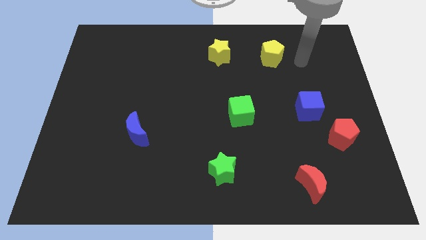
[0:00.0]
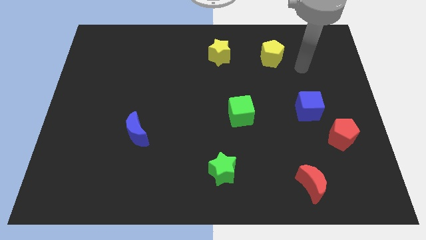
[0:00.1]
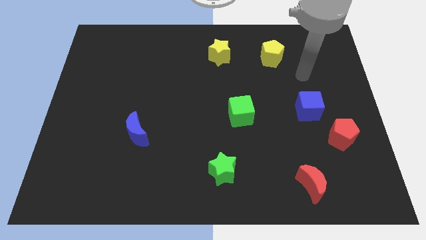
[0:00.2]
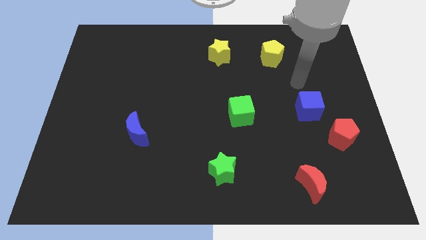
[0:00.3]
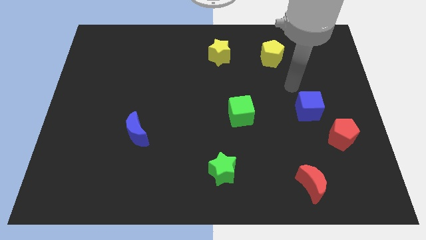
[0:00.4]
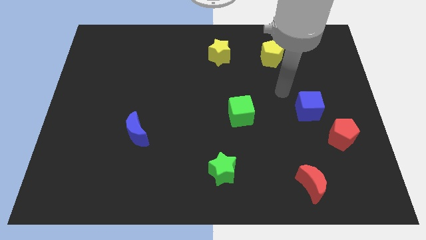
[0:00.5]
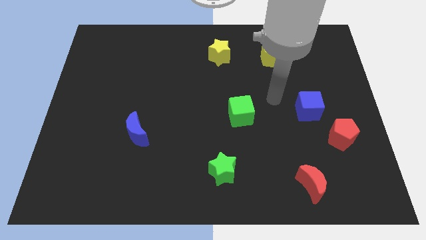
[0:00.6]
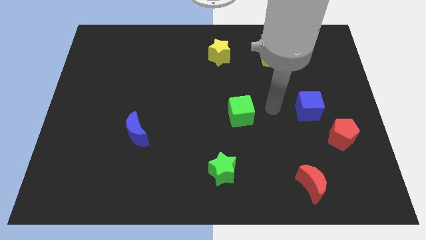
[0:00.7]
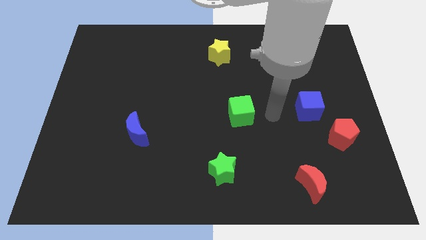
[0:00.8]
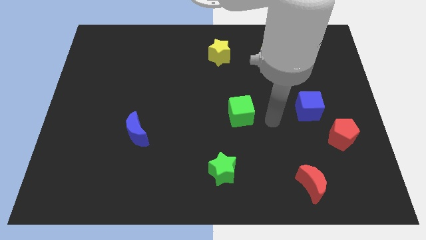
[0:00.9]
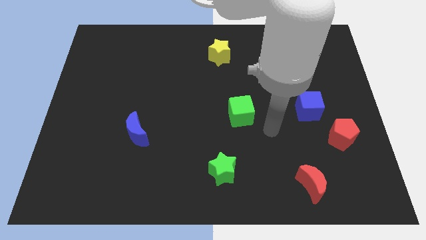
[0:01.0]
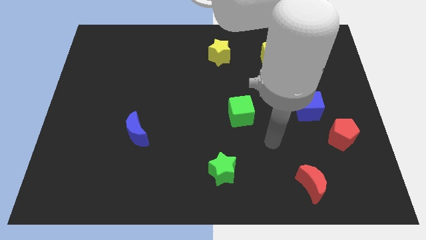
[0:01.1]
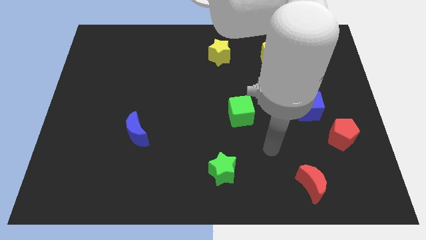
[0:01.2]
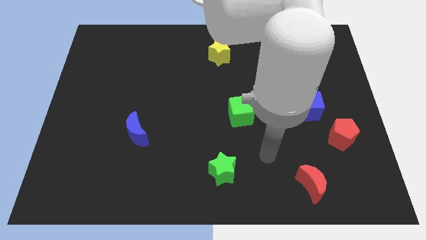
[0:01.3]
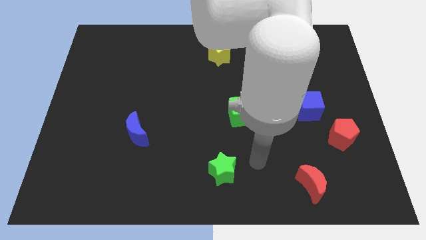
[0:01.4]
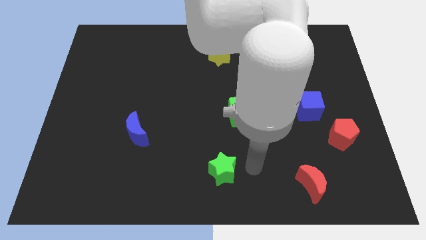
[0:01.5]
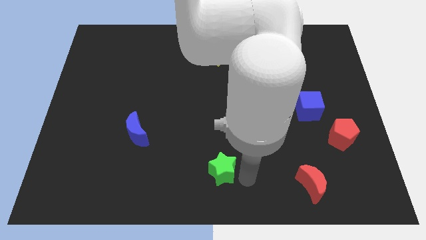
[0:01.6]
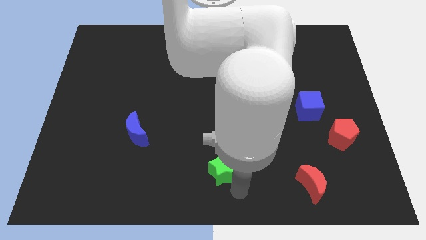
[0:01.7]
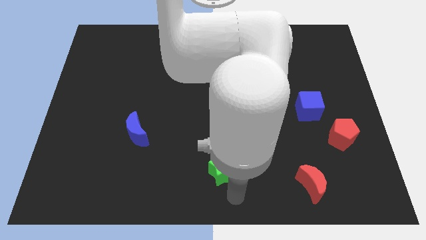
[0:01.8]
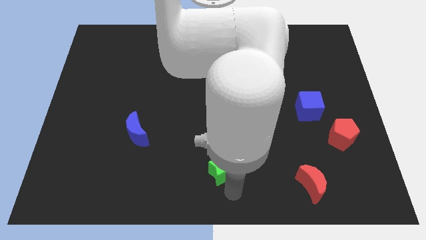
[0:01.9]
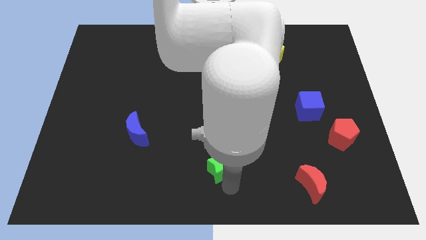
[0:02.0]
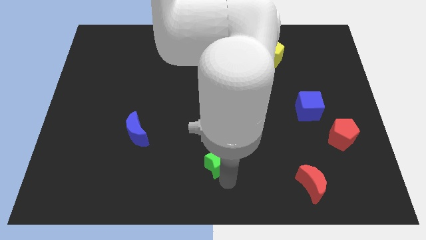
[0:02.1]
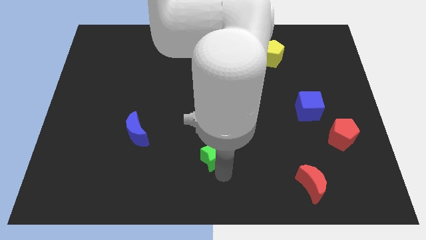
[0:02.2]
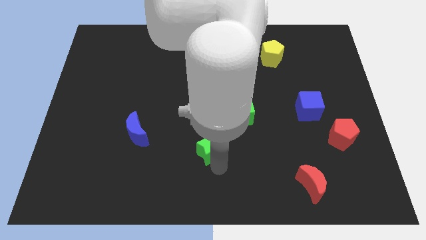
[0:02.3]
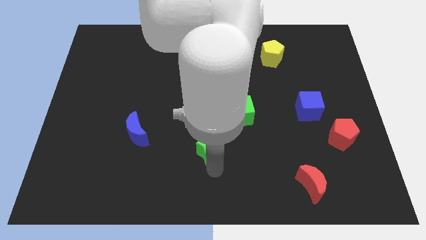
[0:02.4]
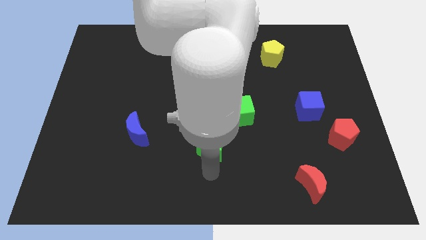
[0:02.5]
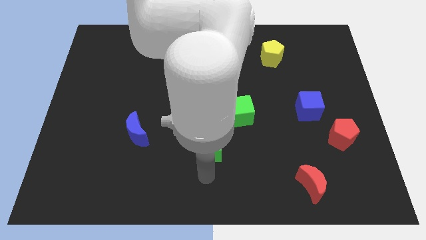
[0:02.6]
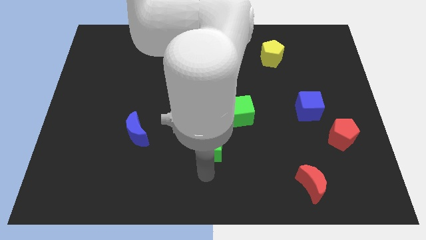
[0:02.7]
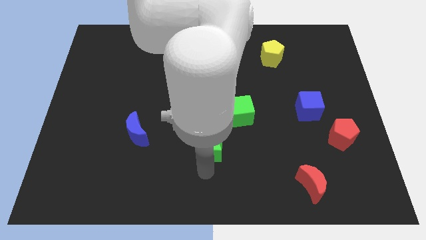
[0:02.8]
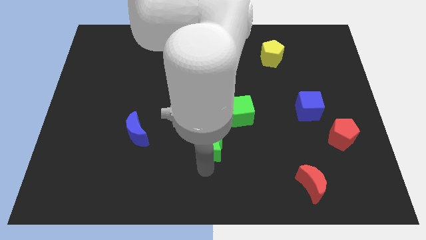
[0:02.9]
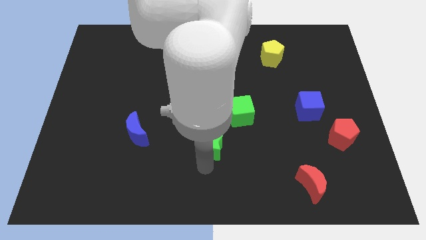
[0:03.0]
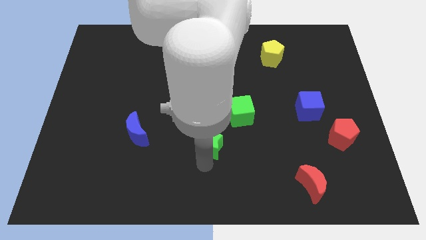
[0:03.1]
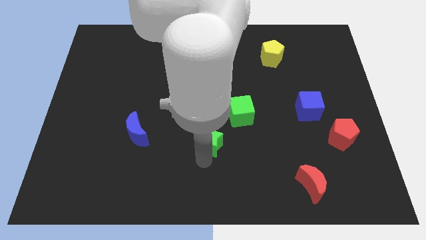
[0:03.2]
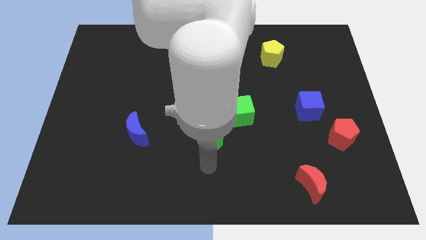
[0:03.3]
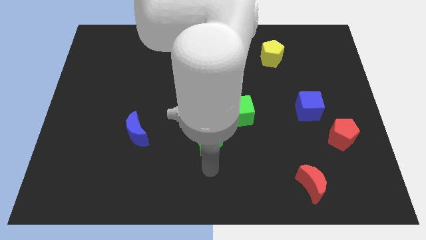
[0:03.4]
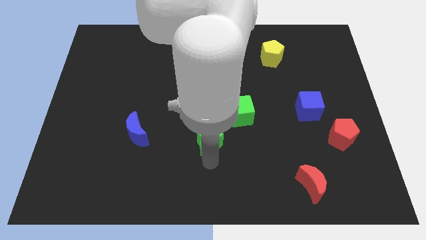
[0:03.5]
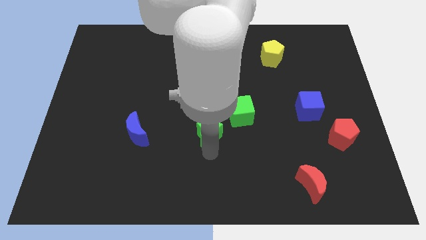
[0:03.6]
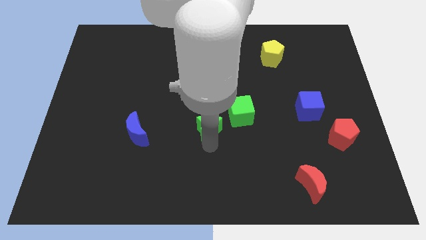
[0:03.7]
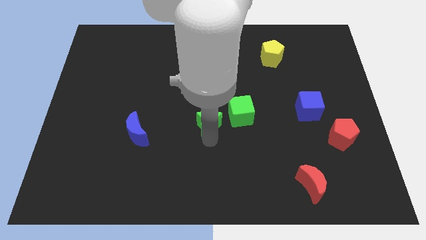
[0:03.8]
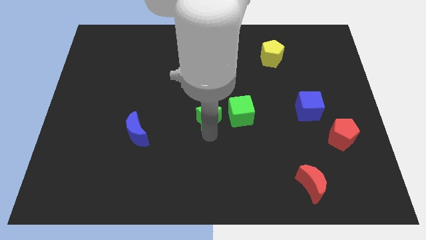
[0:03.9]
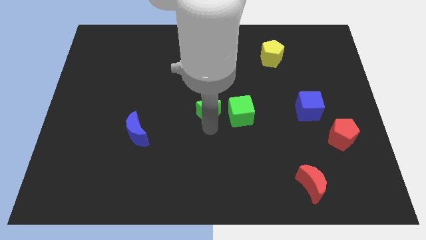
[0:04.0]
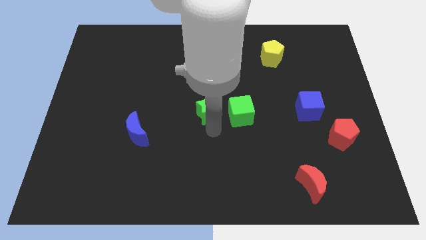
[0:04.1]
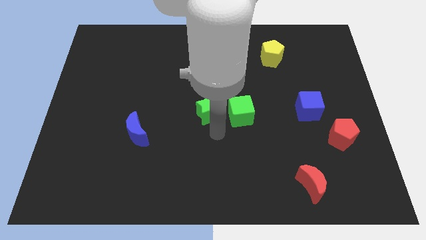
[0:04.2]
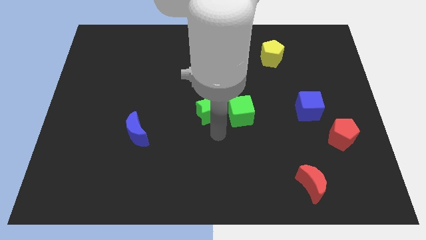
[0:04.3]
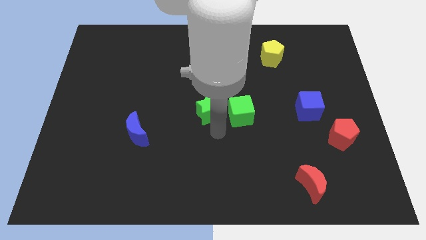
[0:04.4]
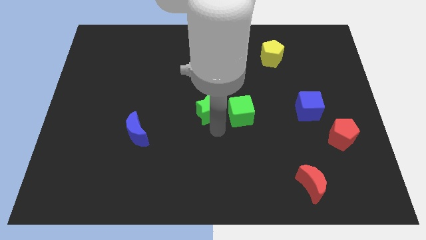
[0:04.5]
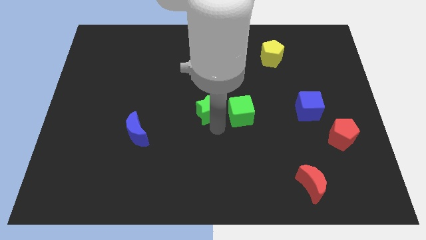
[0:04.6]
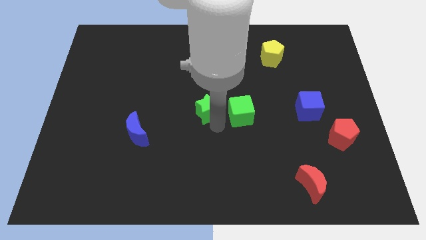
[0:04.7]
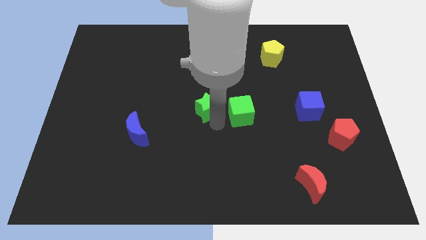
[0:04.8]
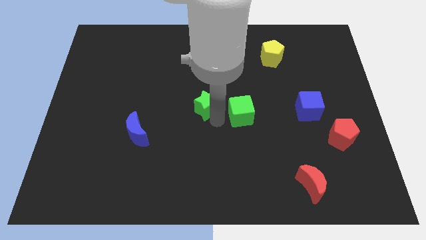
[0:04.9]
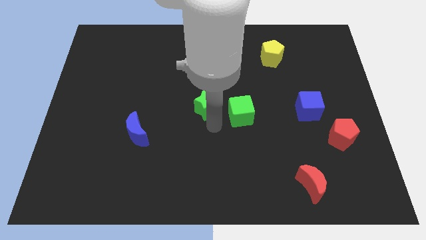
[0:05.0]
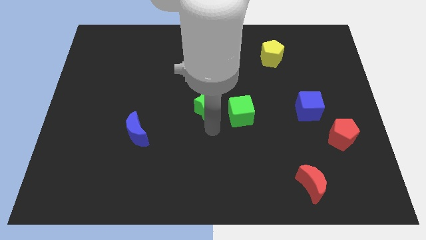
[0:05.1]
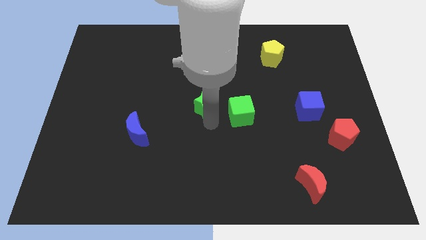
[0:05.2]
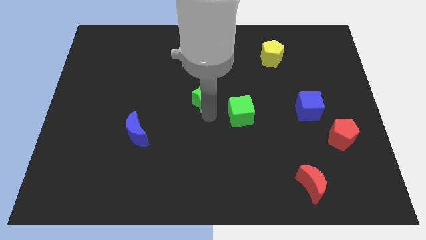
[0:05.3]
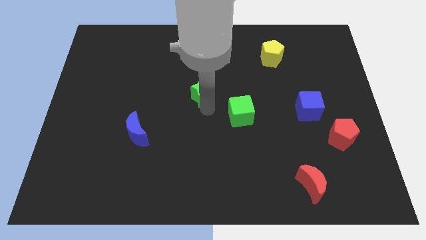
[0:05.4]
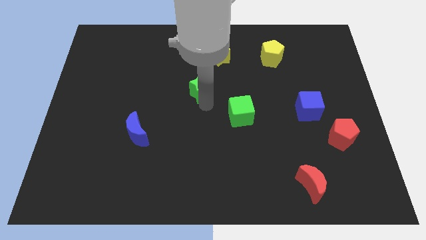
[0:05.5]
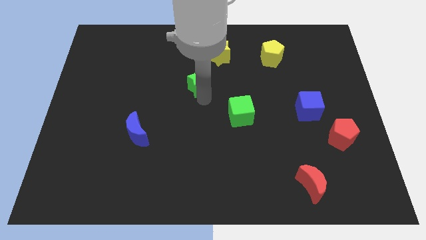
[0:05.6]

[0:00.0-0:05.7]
put the green star to the bottom left side of the yellow star

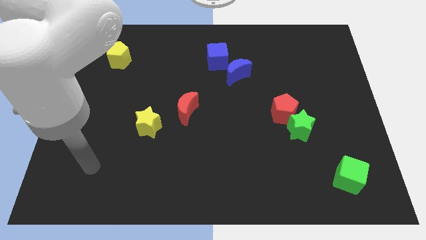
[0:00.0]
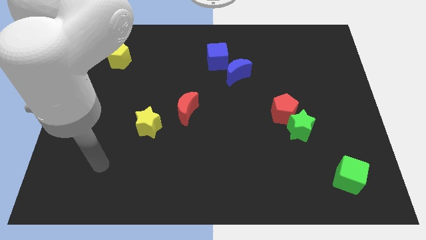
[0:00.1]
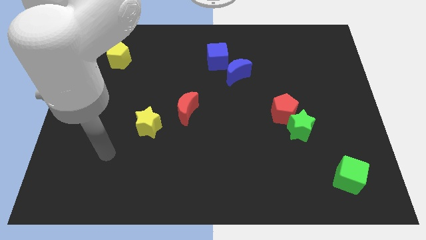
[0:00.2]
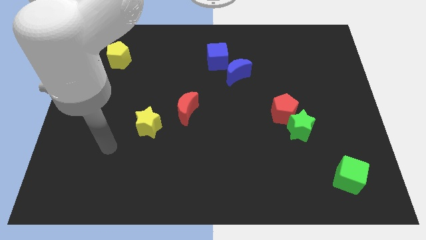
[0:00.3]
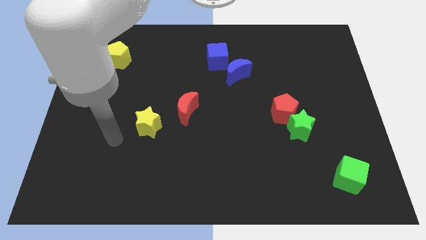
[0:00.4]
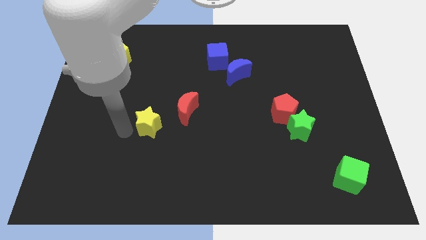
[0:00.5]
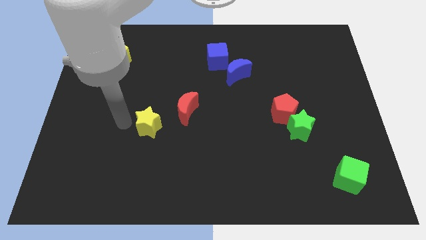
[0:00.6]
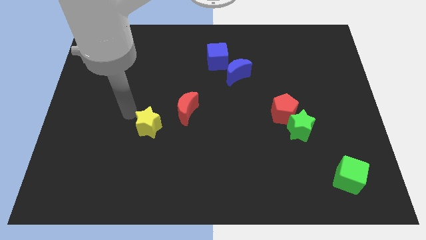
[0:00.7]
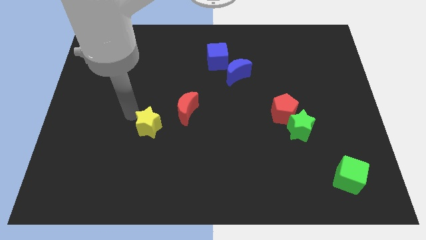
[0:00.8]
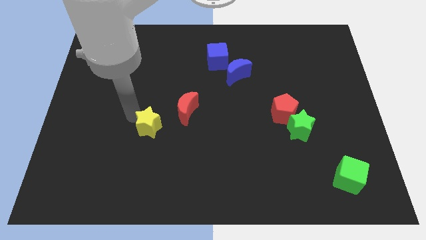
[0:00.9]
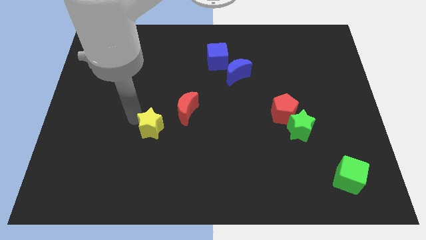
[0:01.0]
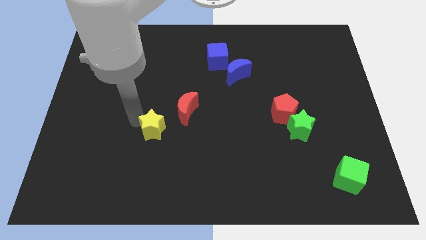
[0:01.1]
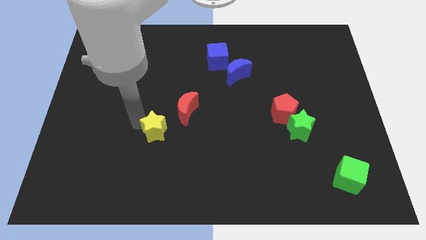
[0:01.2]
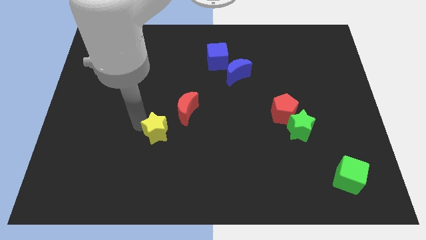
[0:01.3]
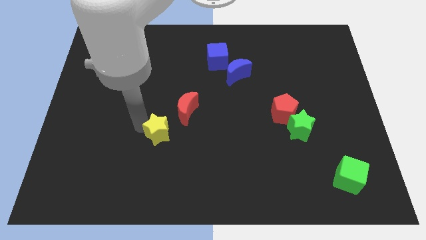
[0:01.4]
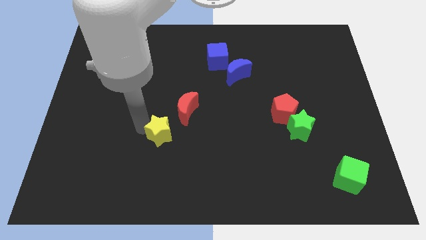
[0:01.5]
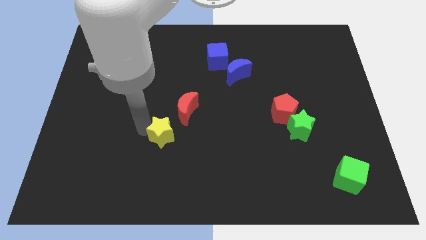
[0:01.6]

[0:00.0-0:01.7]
move the yellow star to the bottom side of the red moon
